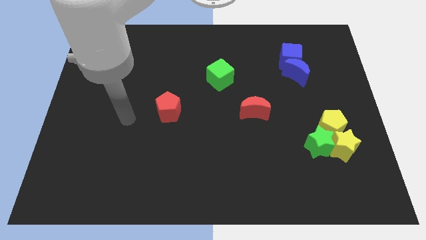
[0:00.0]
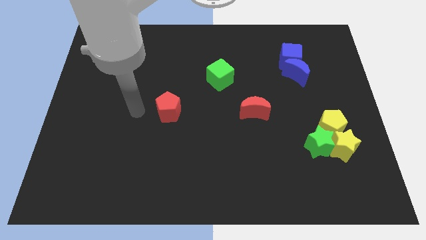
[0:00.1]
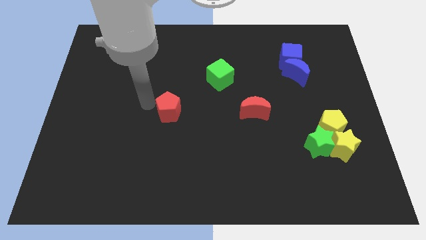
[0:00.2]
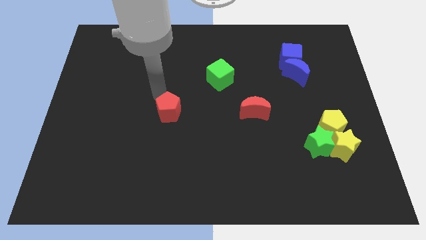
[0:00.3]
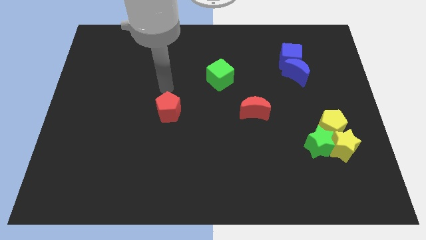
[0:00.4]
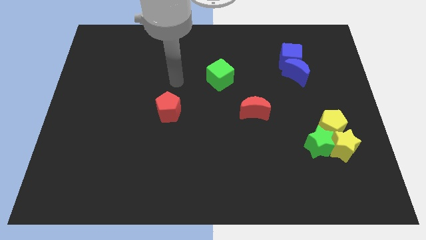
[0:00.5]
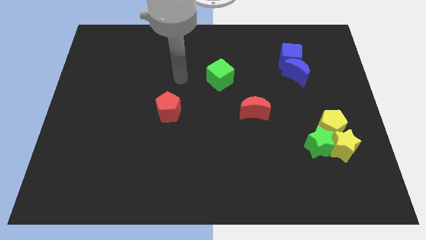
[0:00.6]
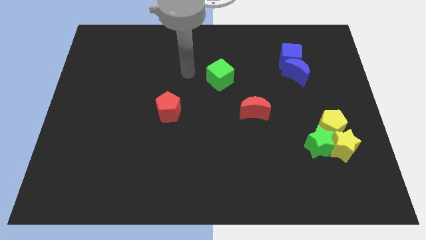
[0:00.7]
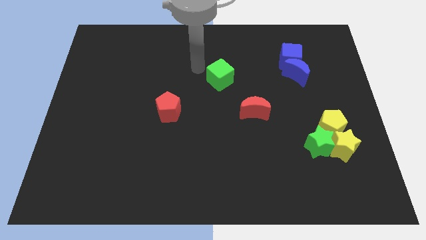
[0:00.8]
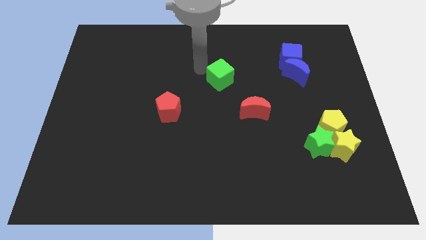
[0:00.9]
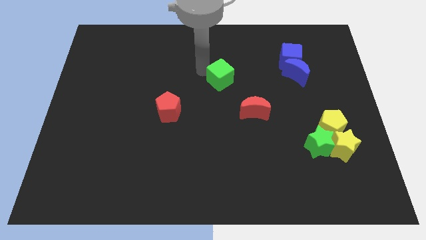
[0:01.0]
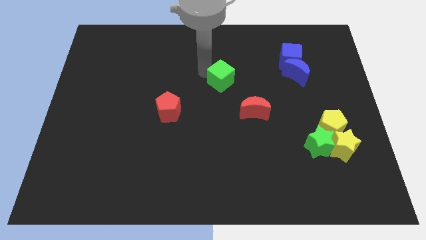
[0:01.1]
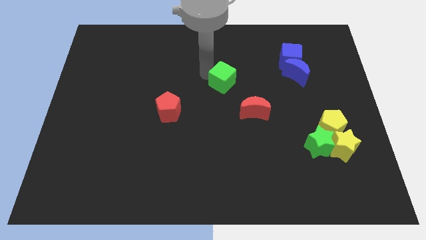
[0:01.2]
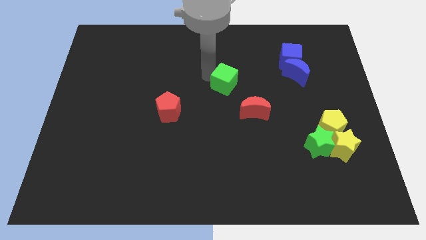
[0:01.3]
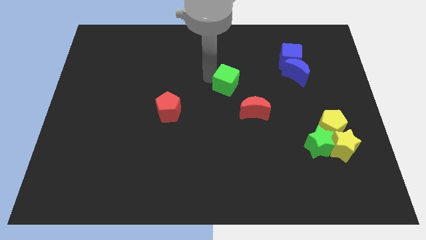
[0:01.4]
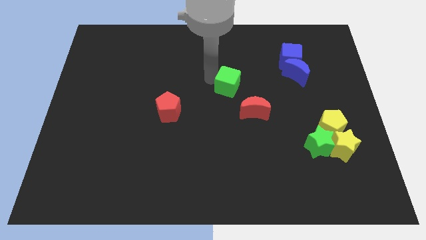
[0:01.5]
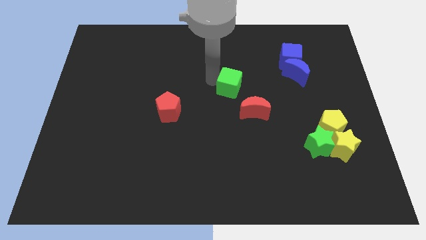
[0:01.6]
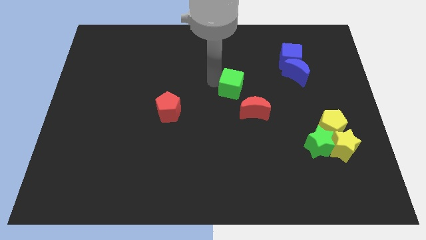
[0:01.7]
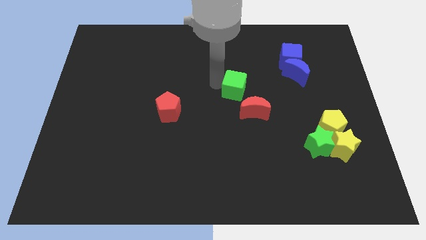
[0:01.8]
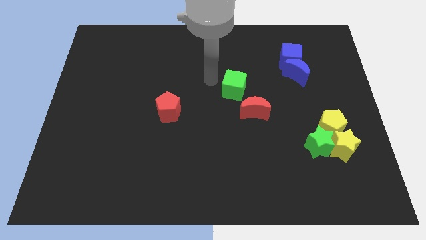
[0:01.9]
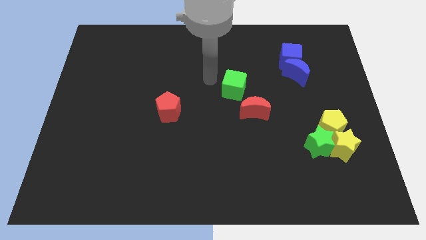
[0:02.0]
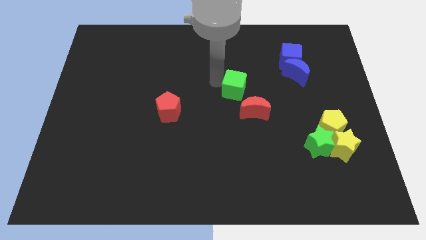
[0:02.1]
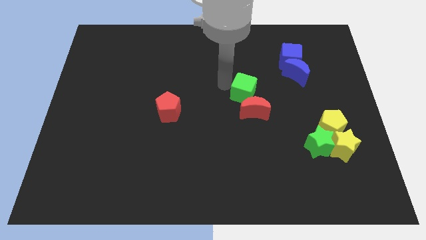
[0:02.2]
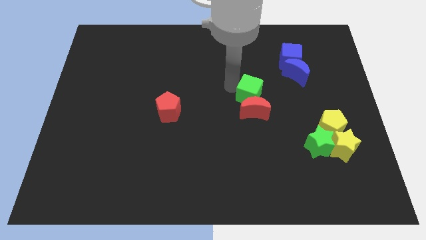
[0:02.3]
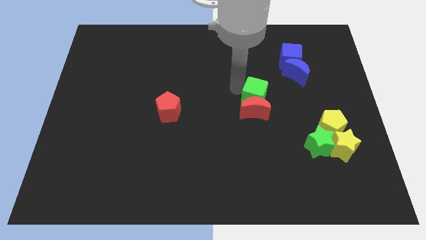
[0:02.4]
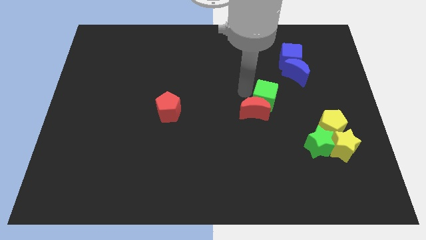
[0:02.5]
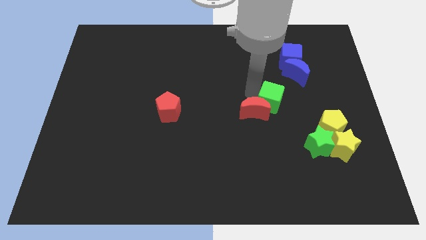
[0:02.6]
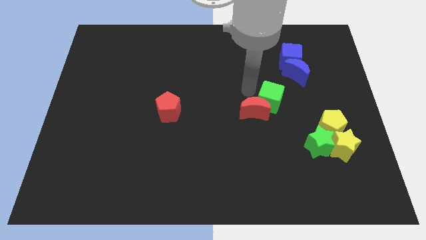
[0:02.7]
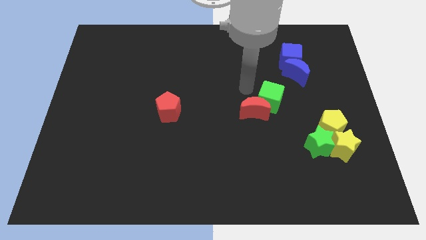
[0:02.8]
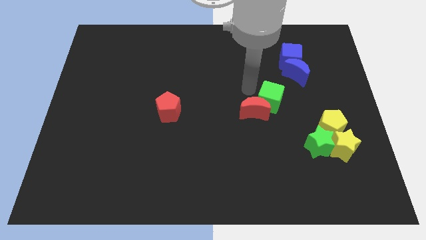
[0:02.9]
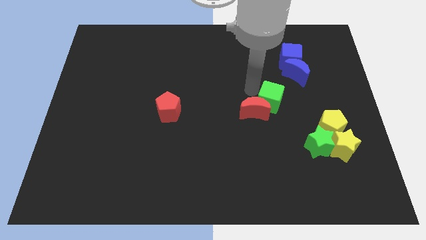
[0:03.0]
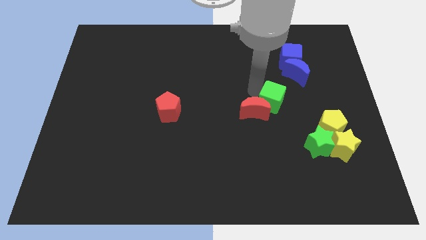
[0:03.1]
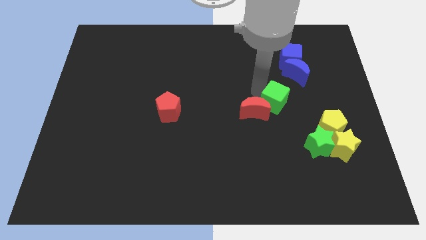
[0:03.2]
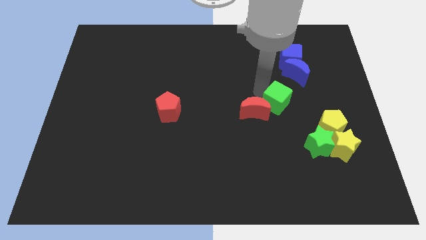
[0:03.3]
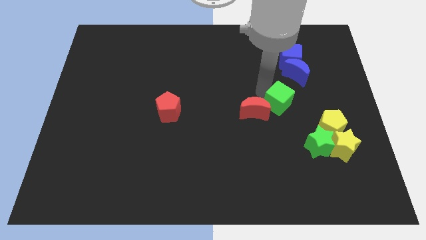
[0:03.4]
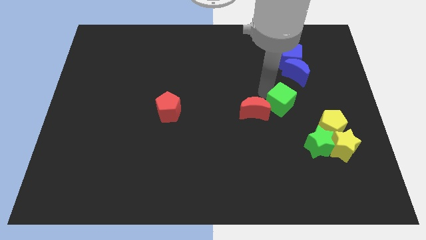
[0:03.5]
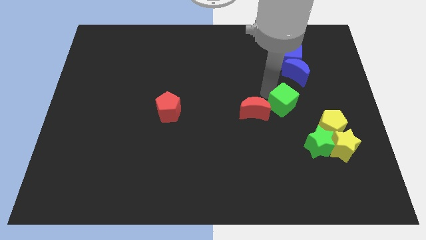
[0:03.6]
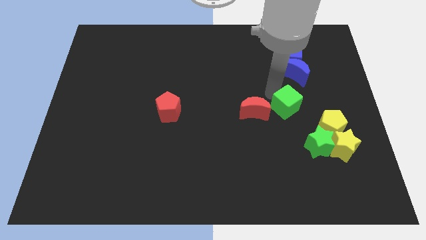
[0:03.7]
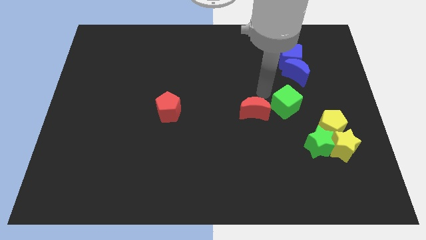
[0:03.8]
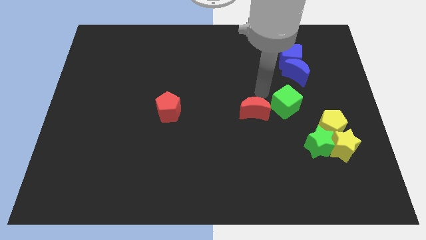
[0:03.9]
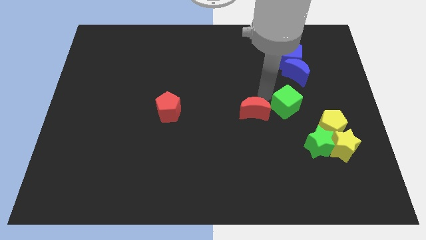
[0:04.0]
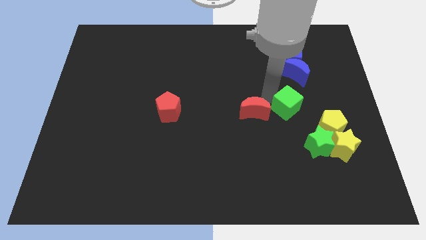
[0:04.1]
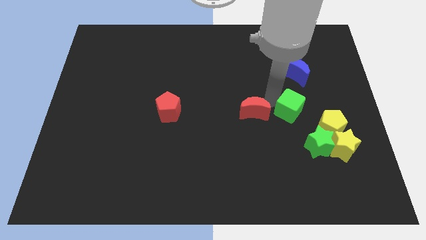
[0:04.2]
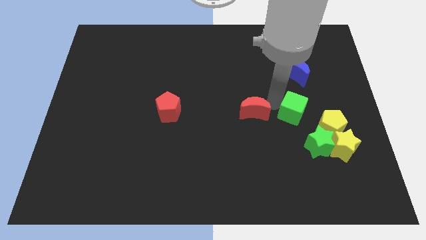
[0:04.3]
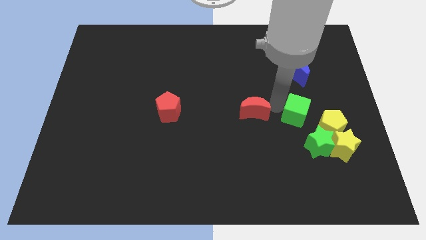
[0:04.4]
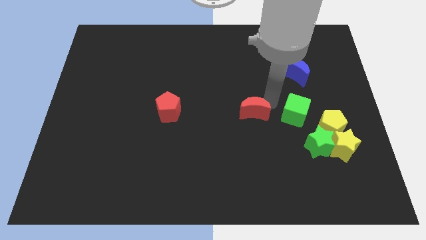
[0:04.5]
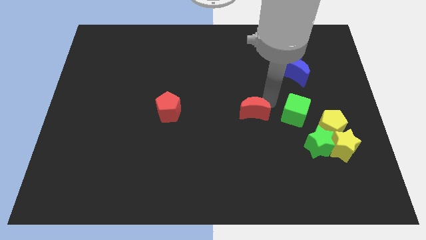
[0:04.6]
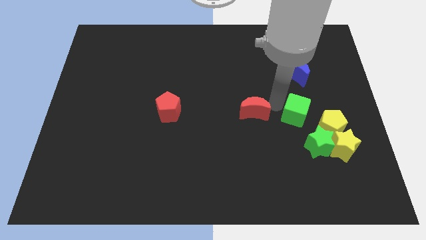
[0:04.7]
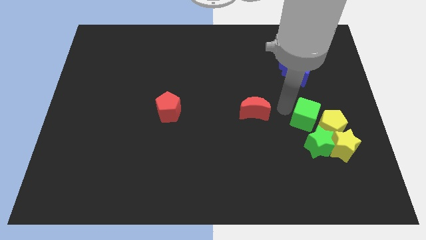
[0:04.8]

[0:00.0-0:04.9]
put the green cube close to the yellow pentagon

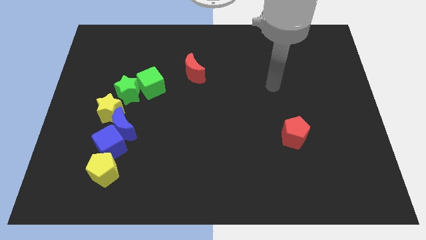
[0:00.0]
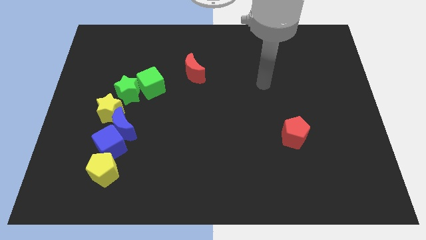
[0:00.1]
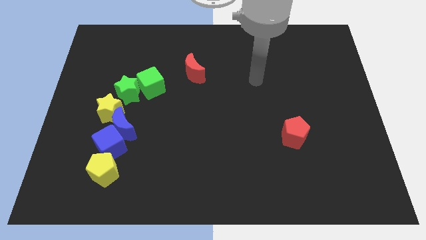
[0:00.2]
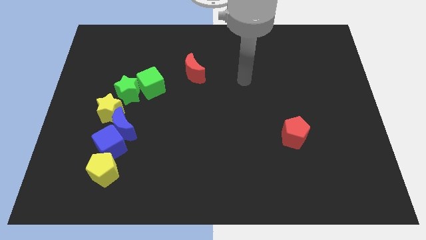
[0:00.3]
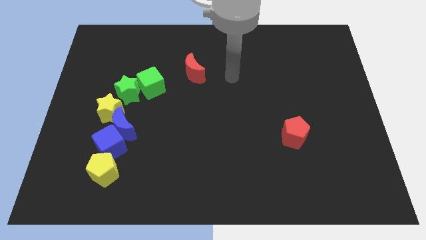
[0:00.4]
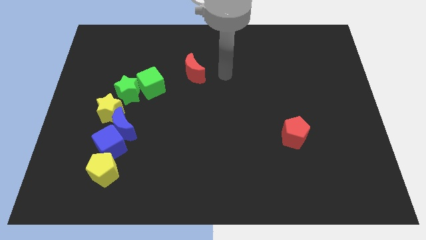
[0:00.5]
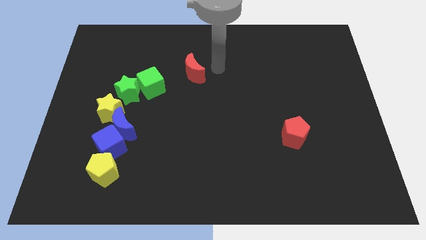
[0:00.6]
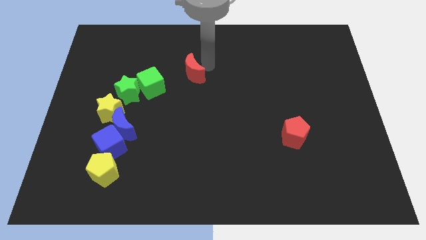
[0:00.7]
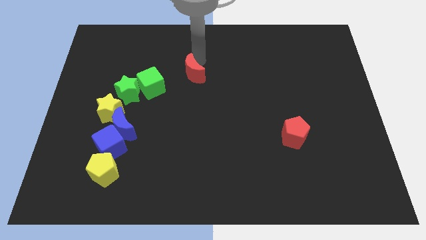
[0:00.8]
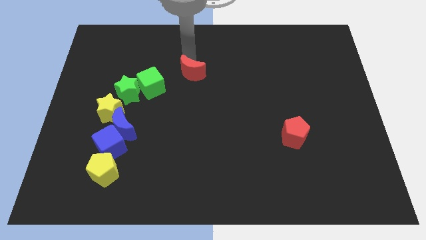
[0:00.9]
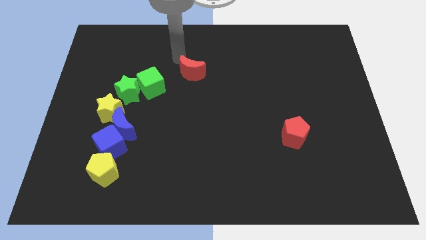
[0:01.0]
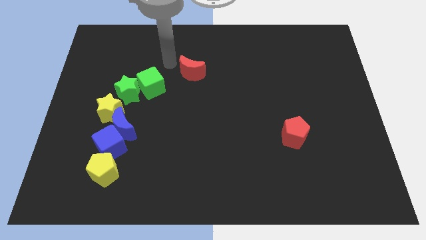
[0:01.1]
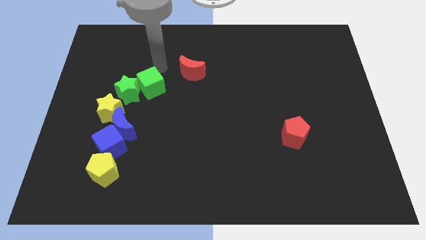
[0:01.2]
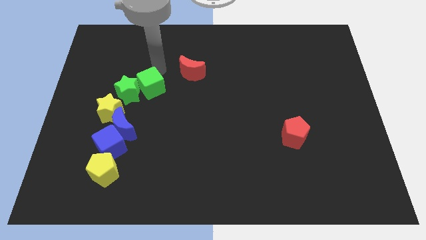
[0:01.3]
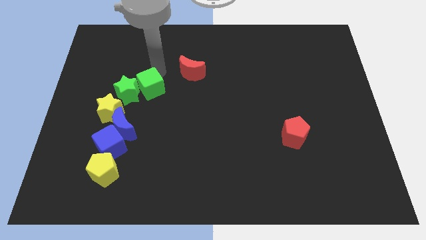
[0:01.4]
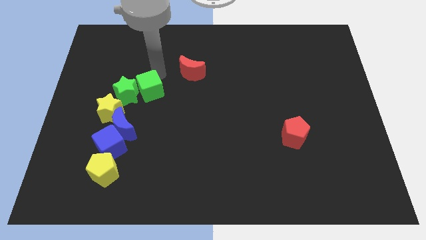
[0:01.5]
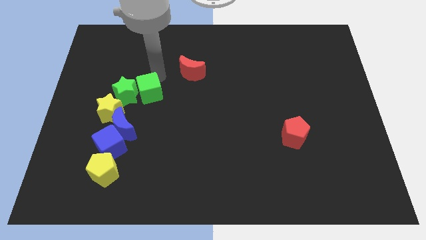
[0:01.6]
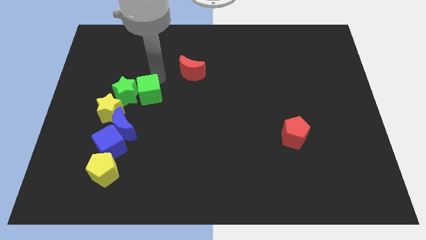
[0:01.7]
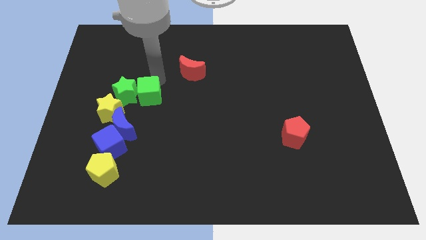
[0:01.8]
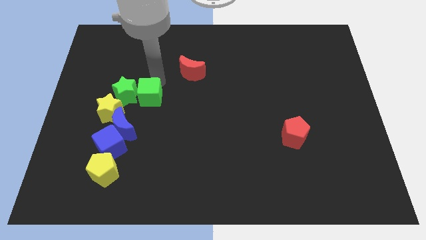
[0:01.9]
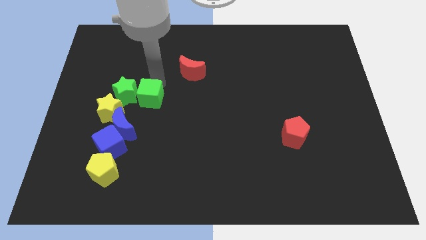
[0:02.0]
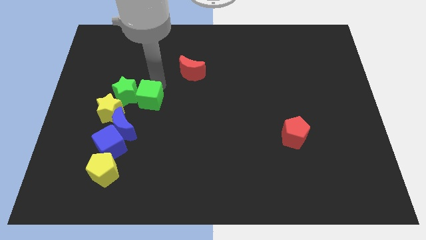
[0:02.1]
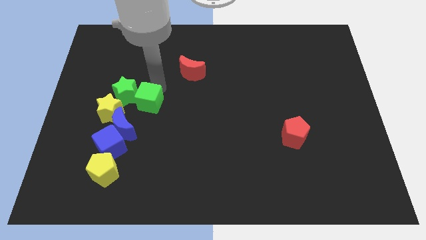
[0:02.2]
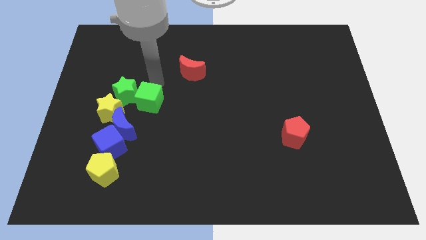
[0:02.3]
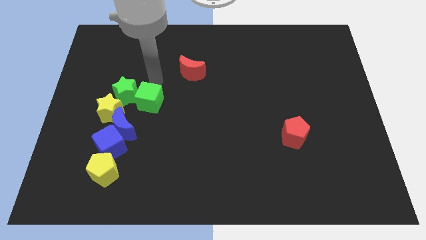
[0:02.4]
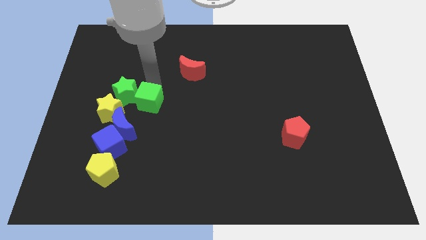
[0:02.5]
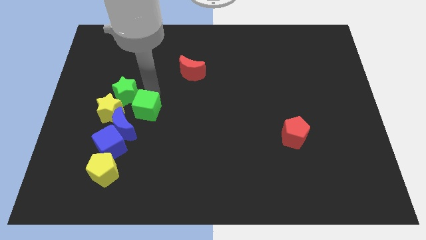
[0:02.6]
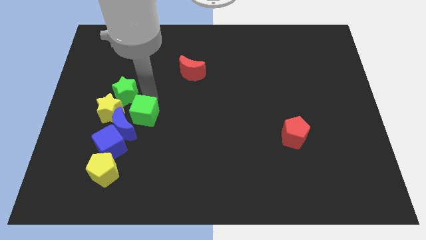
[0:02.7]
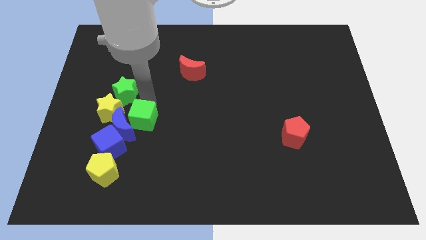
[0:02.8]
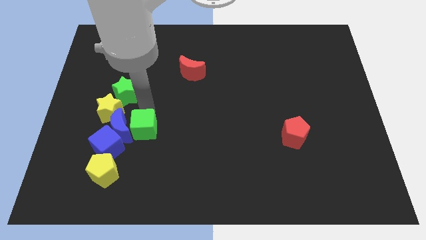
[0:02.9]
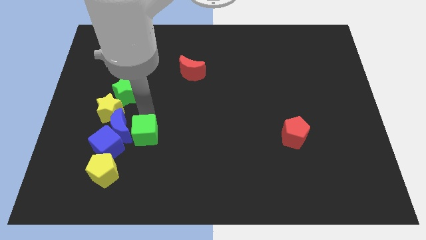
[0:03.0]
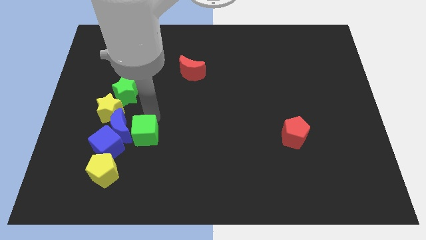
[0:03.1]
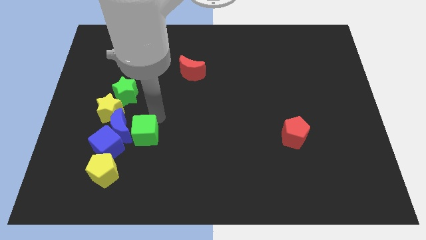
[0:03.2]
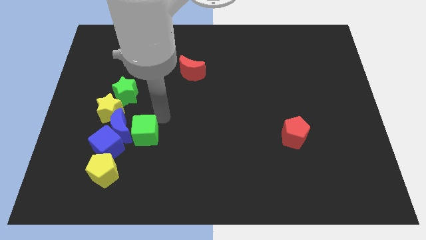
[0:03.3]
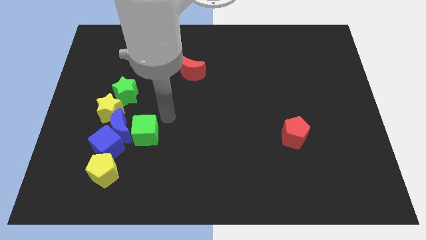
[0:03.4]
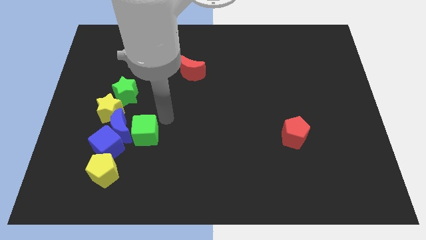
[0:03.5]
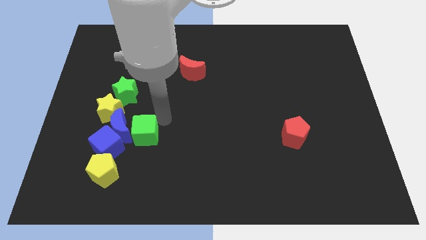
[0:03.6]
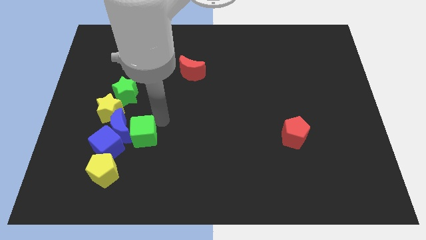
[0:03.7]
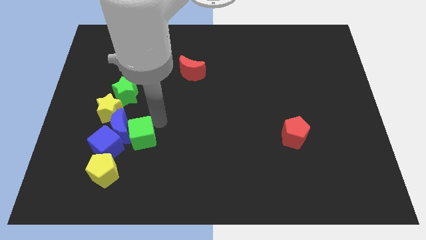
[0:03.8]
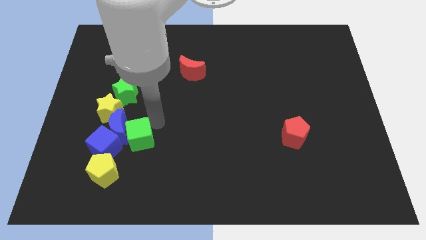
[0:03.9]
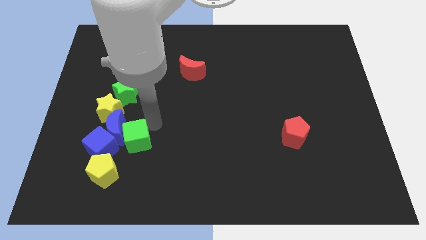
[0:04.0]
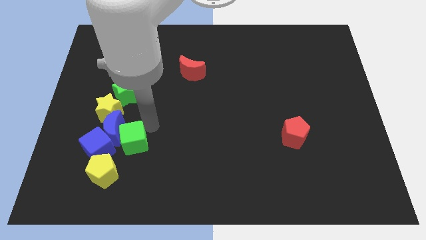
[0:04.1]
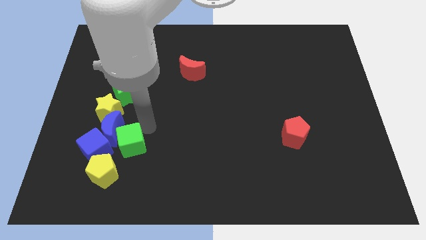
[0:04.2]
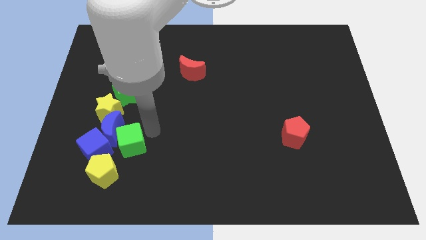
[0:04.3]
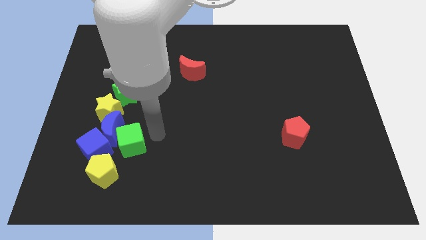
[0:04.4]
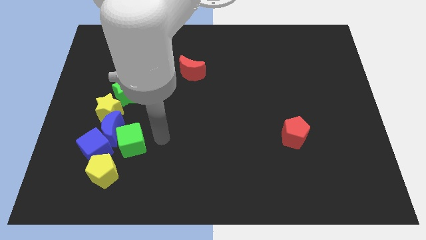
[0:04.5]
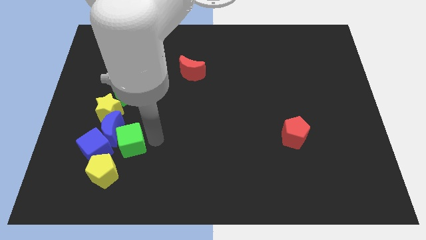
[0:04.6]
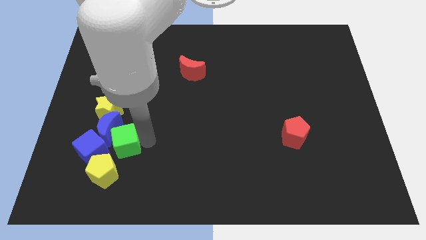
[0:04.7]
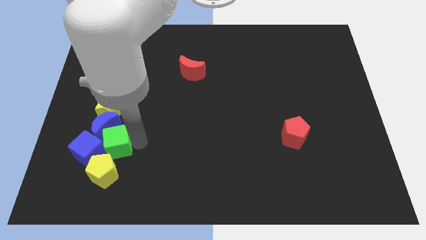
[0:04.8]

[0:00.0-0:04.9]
move the green cube towards the blue cube
